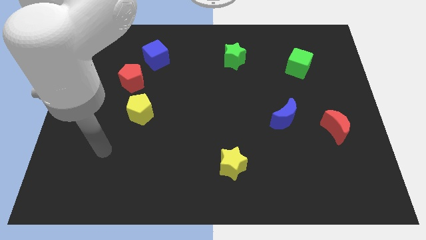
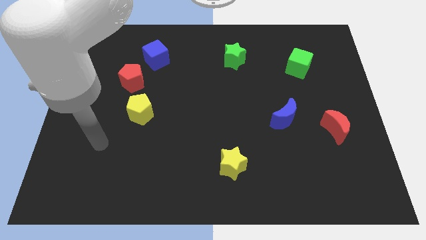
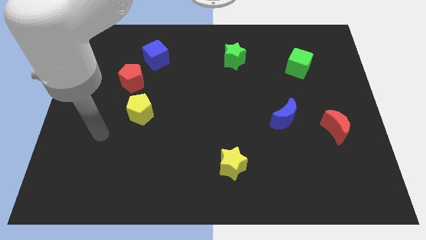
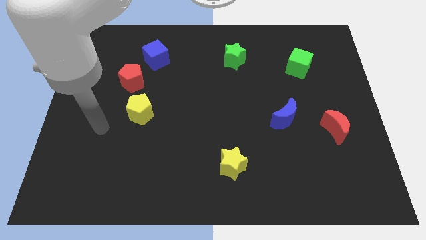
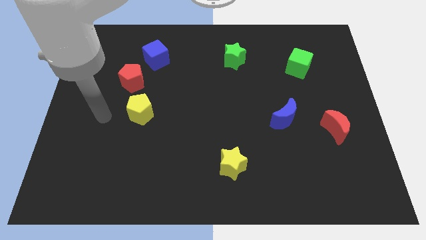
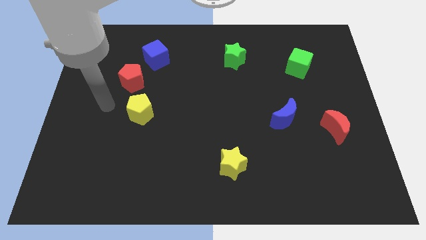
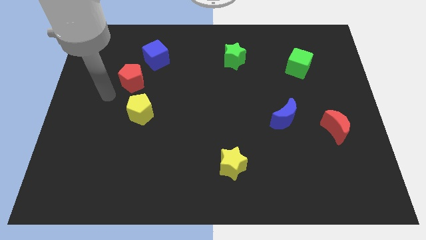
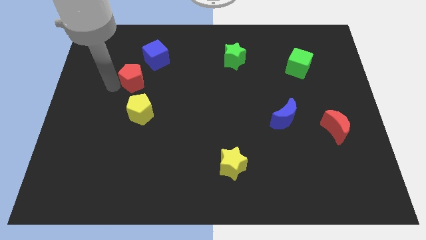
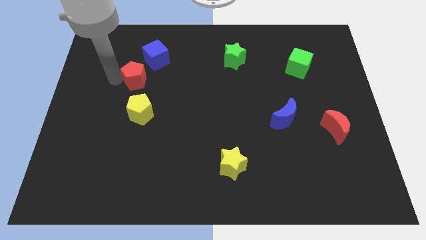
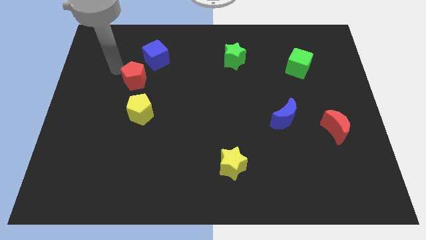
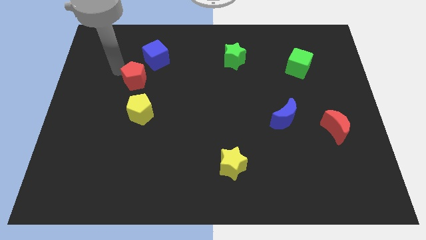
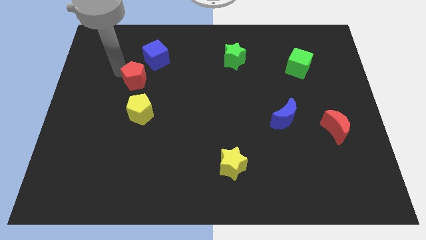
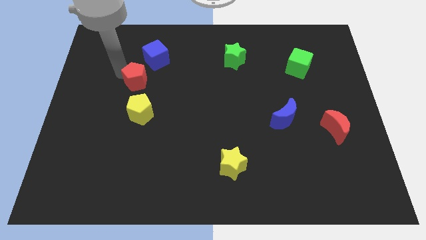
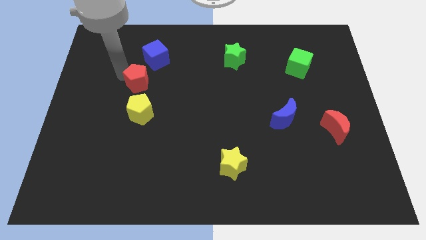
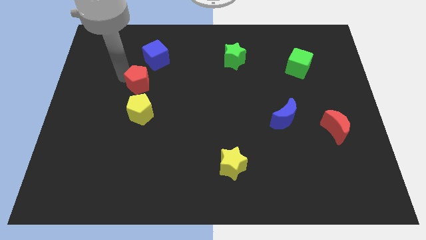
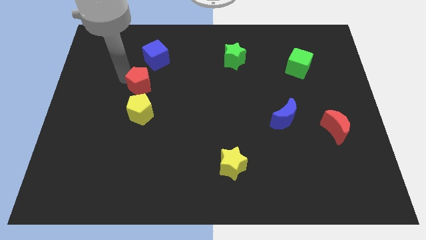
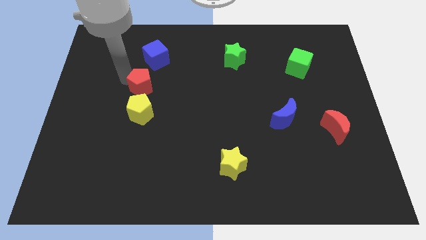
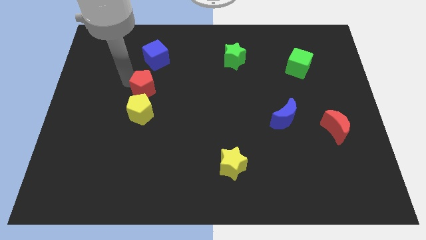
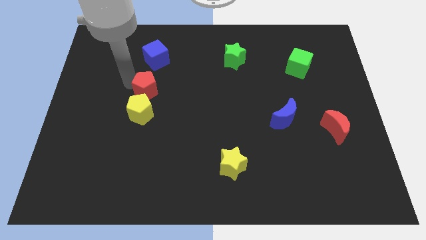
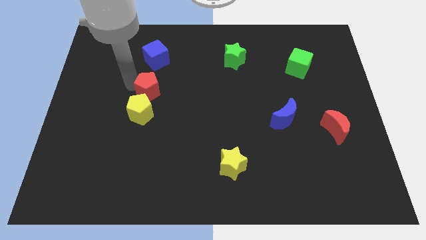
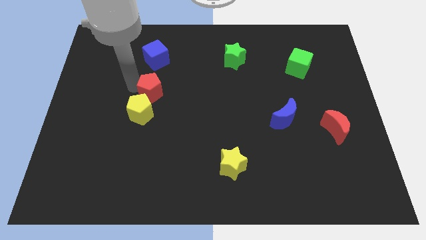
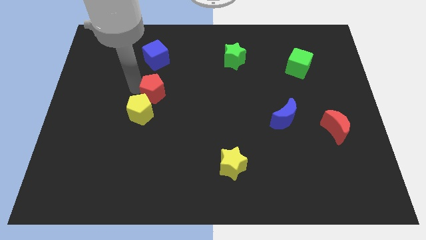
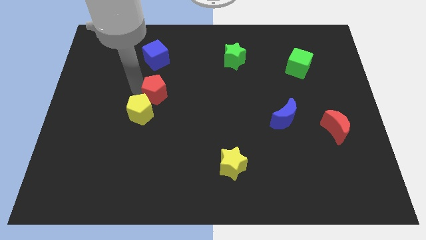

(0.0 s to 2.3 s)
push the red pentagon downwards and to the right diagonally a little bit

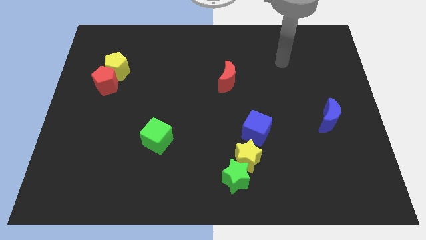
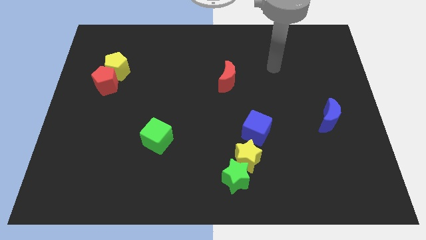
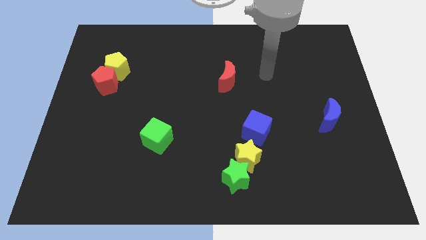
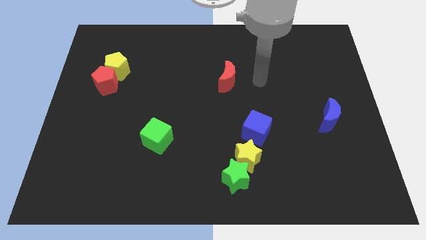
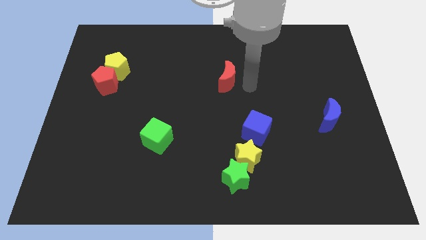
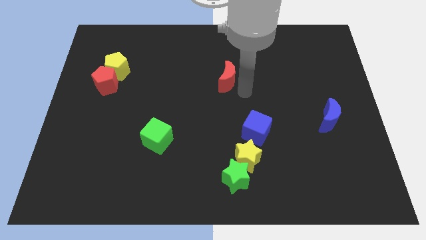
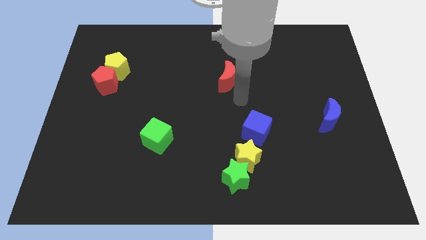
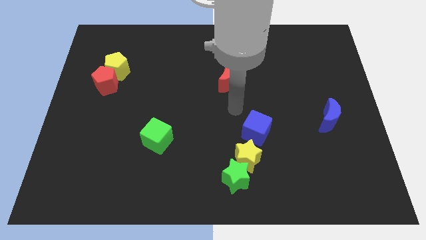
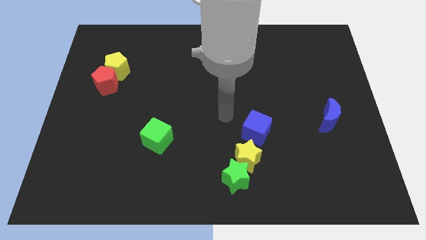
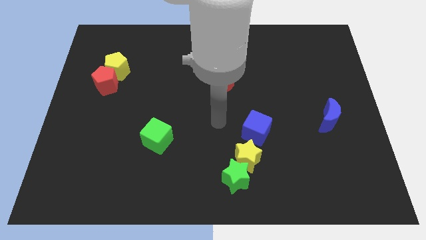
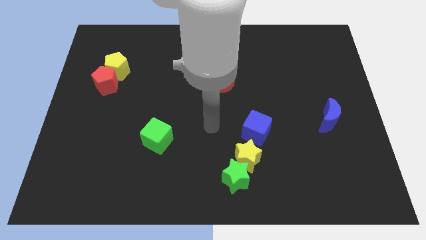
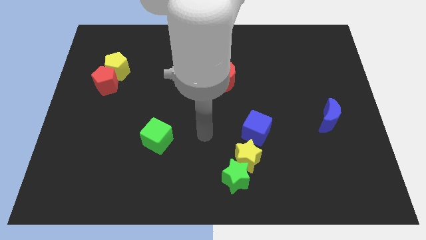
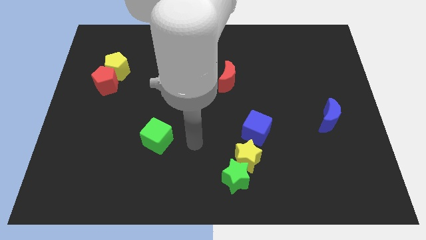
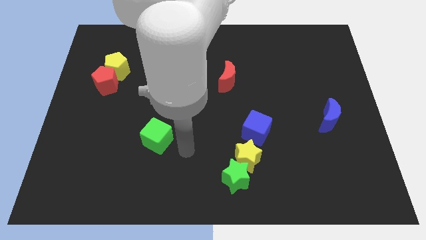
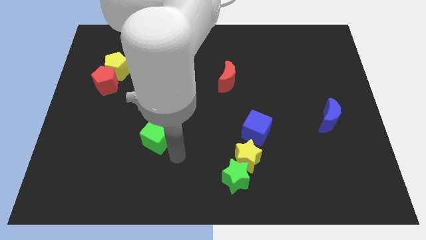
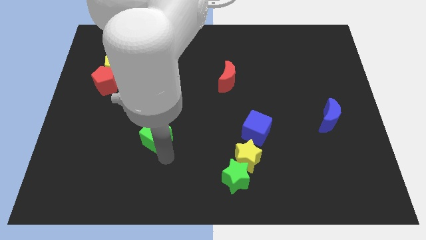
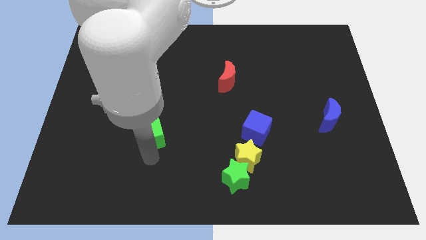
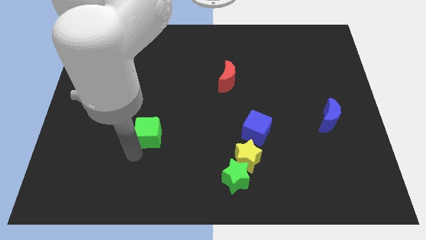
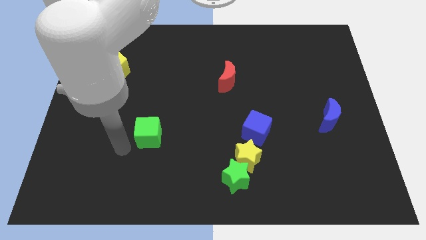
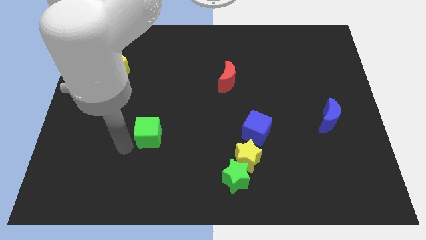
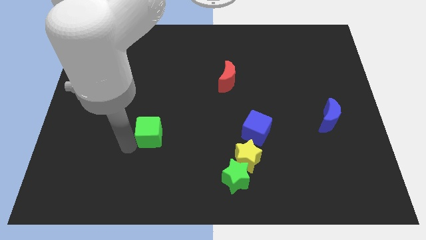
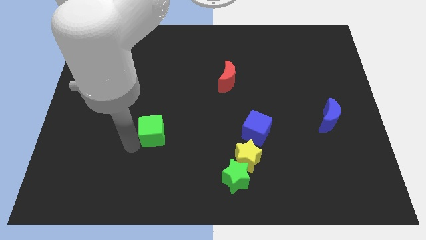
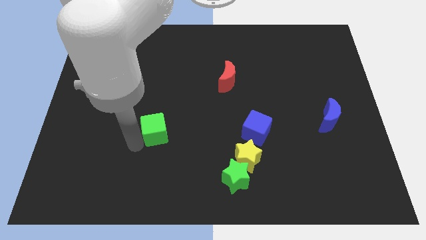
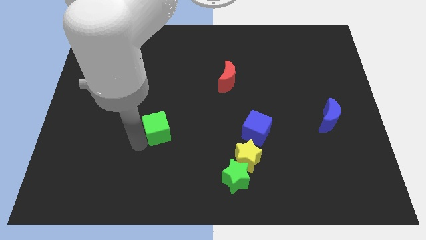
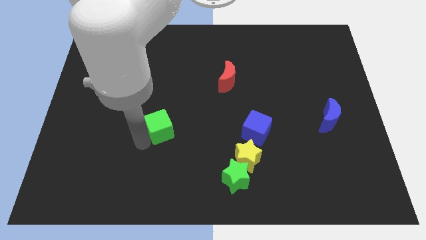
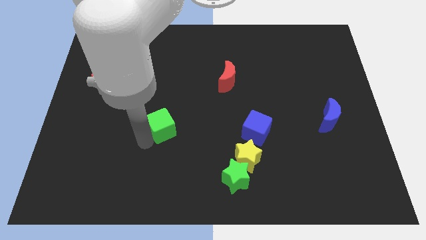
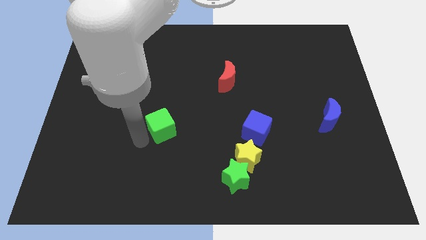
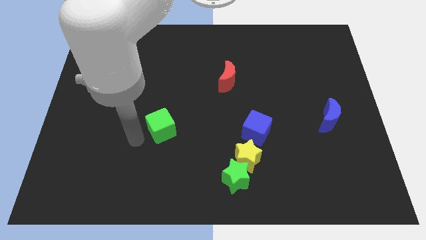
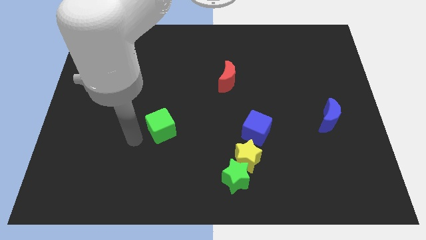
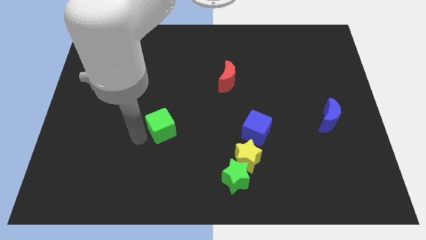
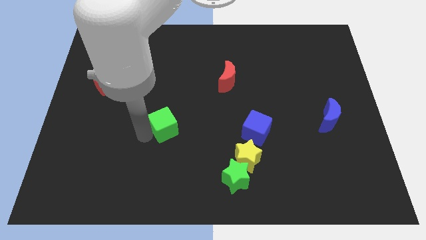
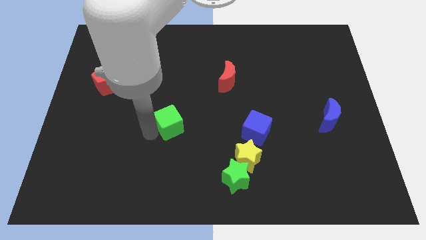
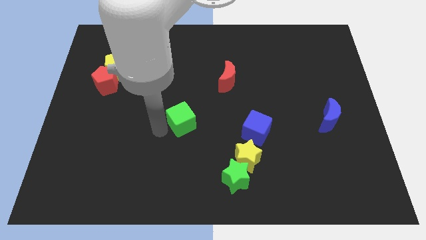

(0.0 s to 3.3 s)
push the green cube up and right diagonally slightly

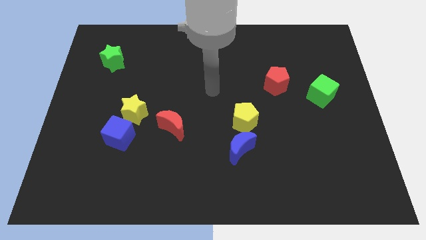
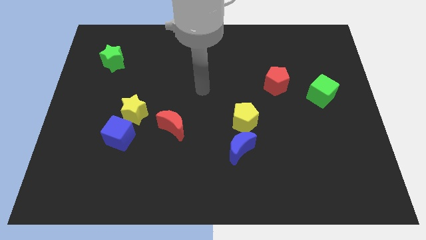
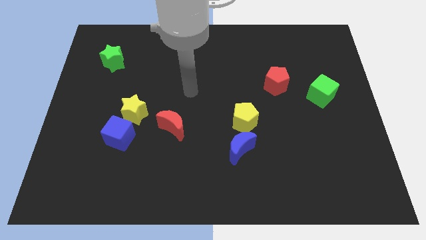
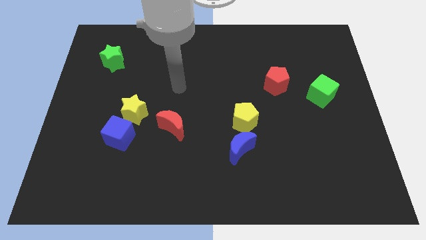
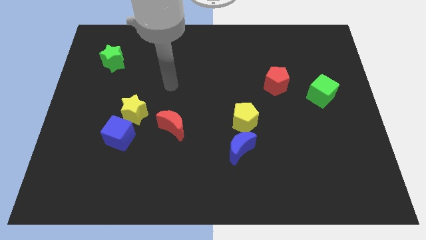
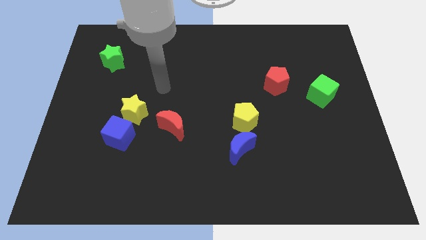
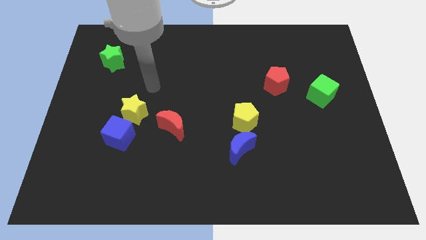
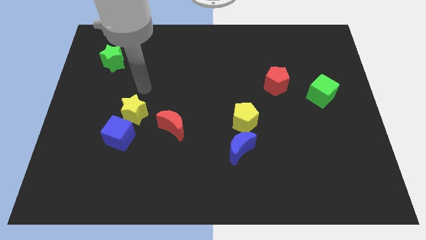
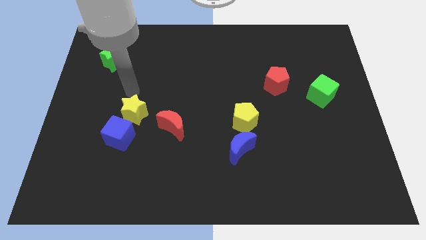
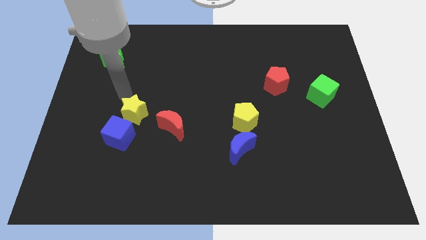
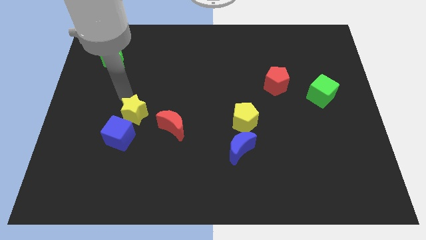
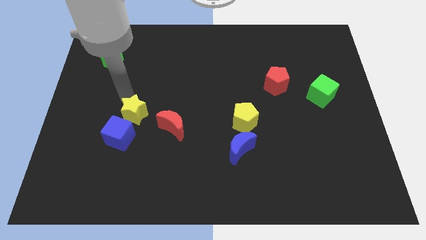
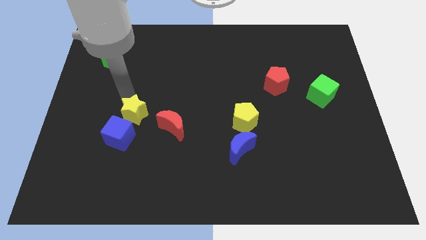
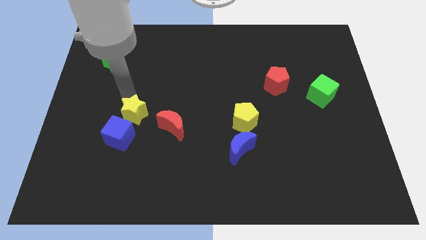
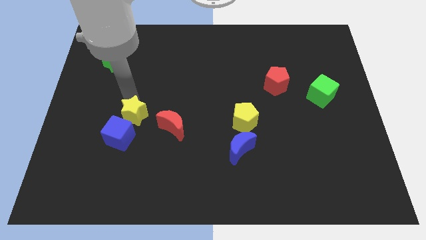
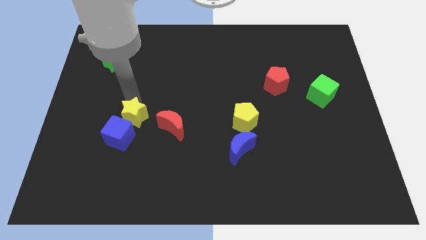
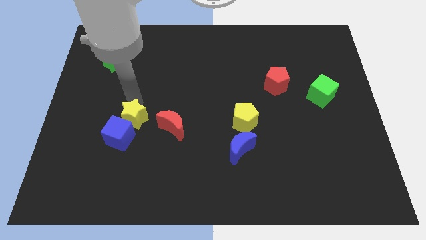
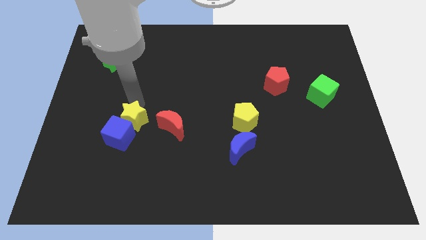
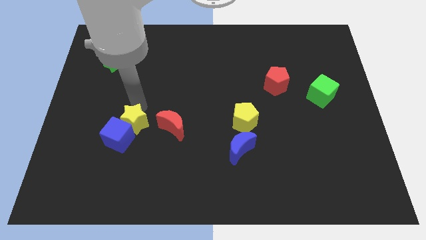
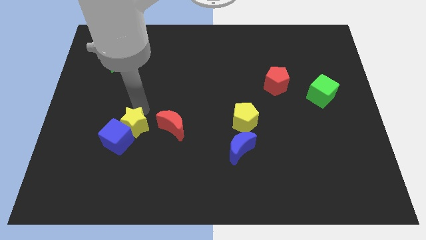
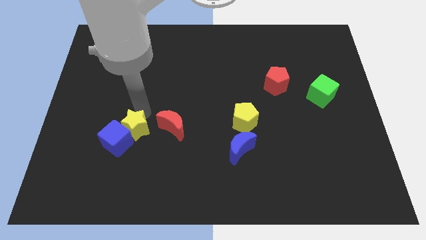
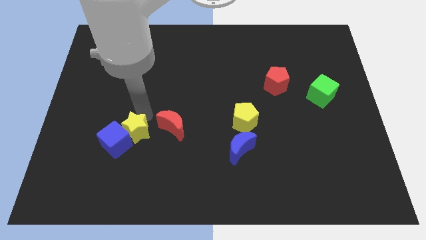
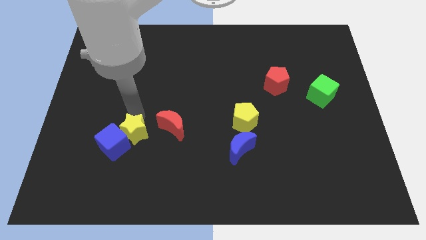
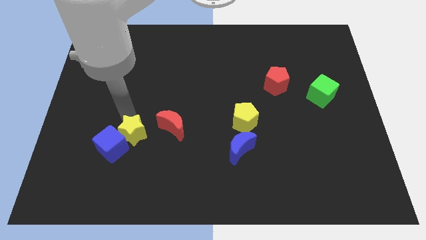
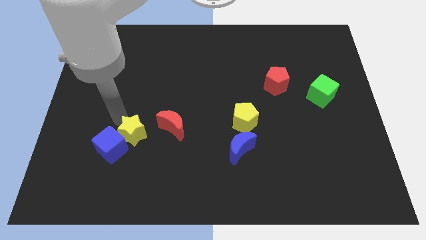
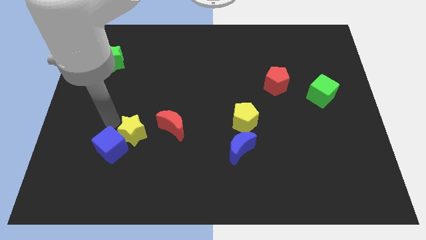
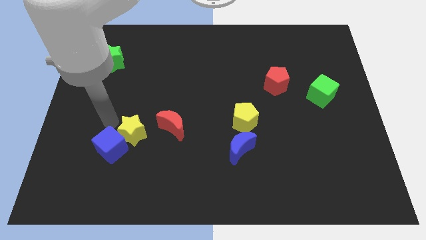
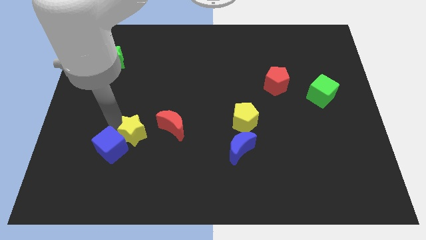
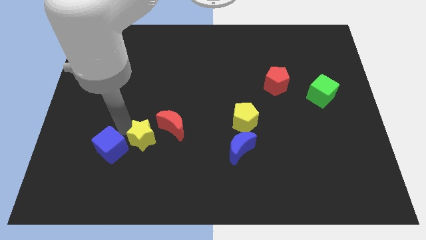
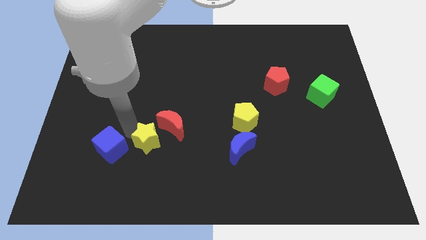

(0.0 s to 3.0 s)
slightly slide the yellow star downwards and right diagonally
